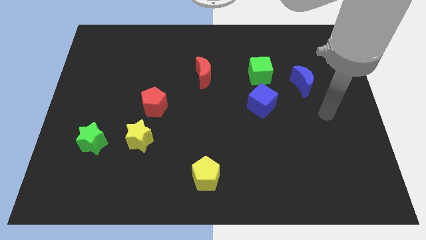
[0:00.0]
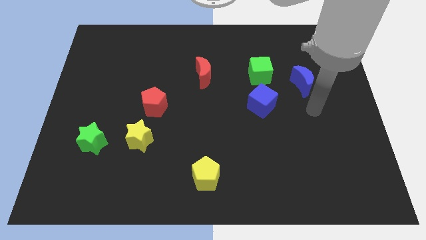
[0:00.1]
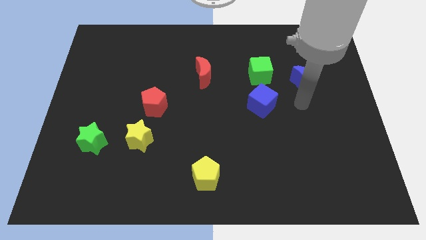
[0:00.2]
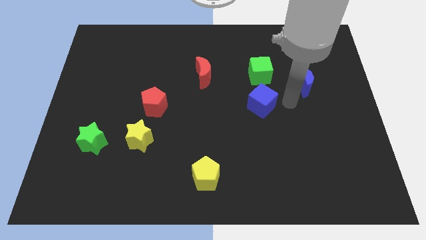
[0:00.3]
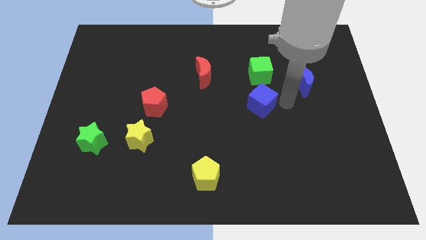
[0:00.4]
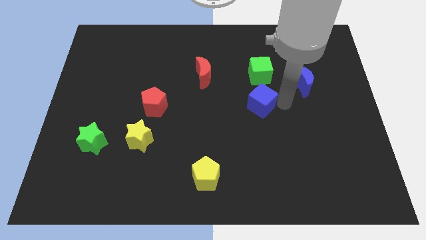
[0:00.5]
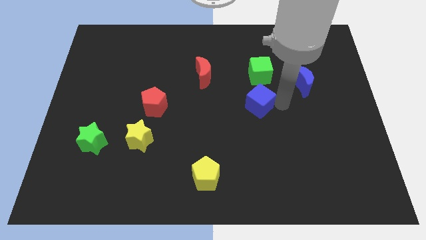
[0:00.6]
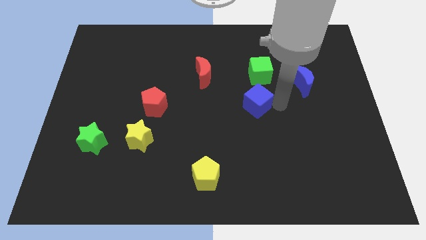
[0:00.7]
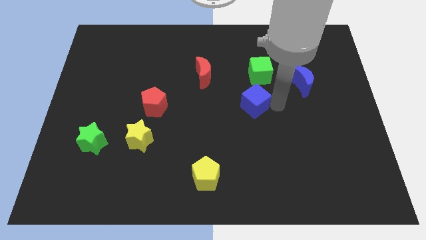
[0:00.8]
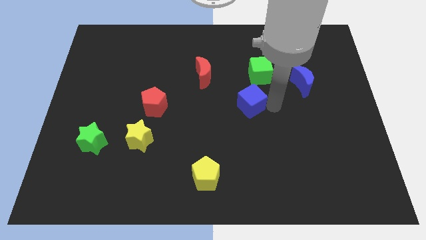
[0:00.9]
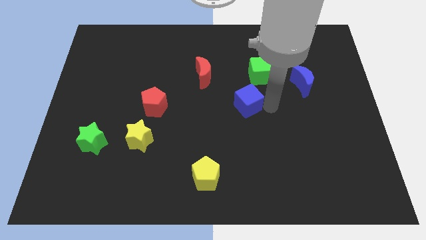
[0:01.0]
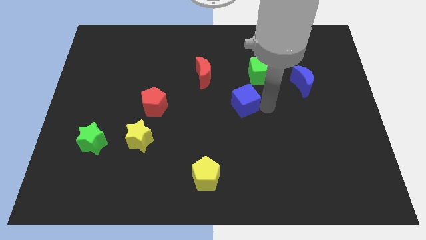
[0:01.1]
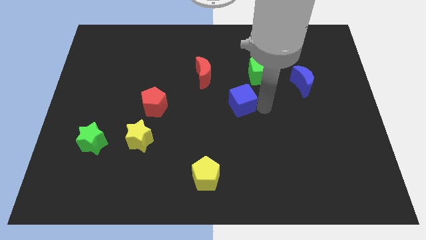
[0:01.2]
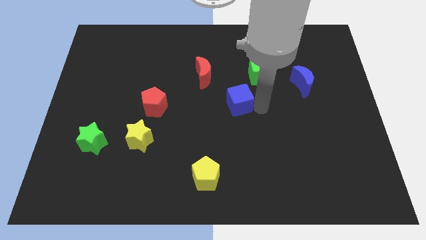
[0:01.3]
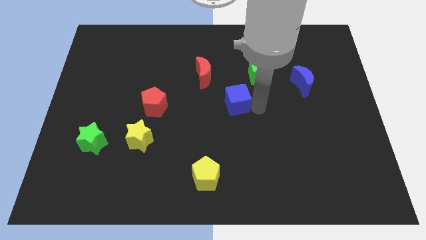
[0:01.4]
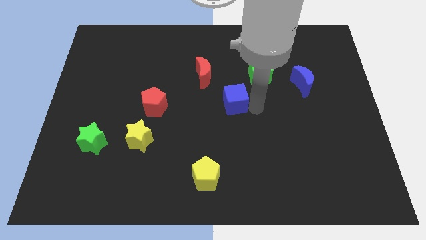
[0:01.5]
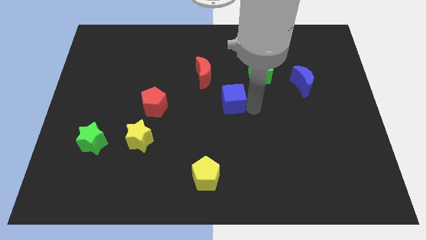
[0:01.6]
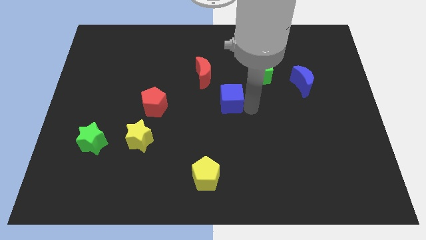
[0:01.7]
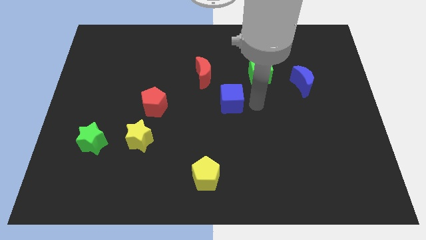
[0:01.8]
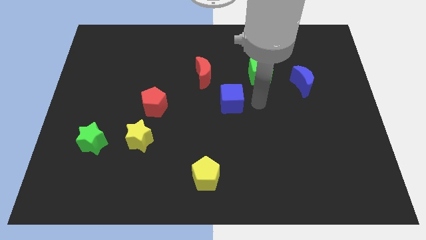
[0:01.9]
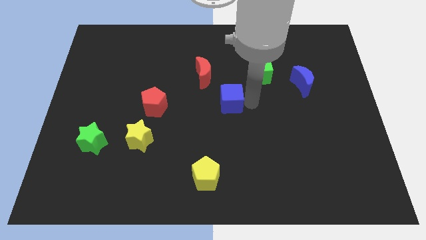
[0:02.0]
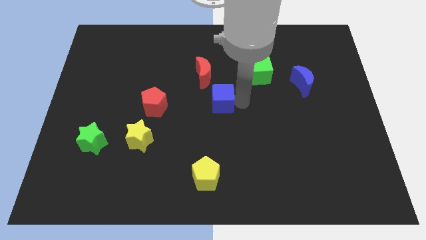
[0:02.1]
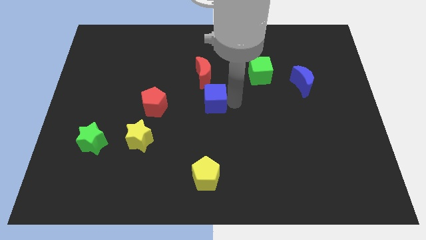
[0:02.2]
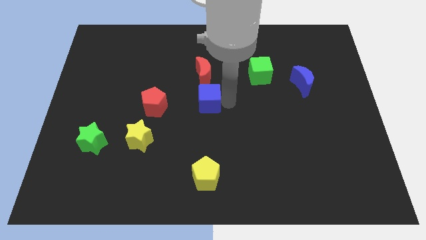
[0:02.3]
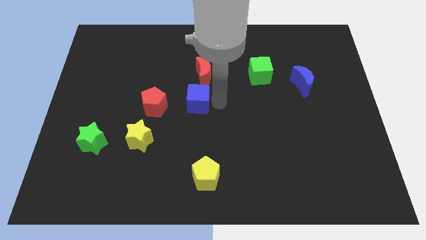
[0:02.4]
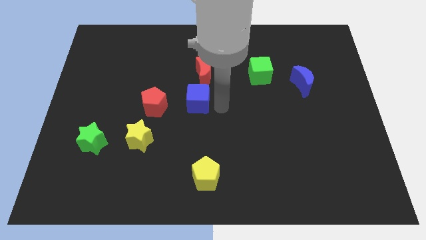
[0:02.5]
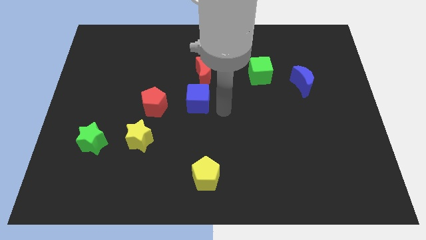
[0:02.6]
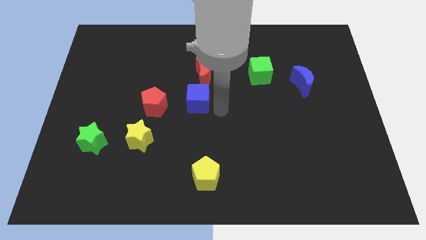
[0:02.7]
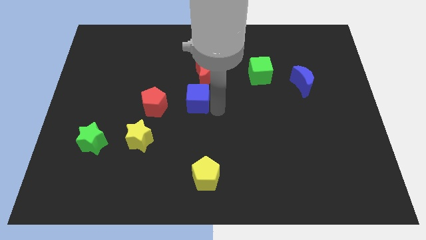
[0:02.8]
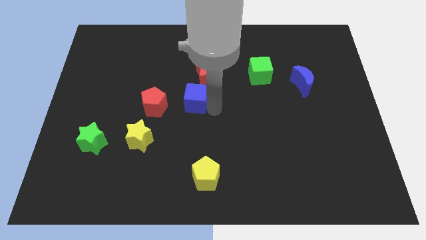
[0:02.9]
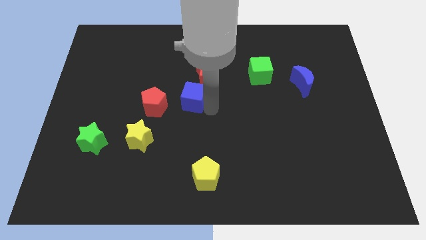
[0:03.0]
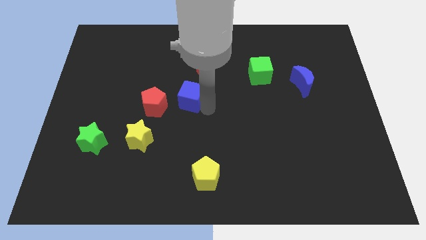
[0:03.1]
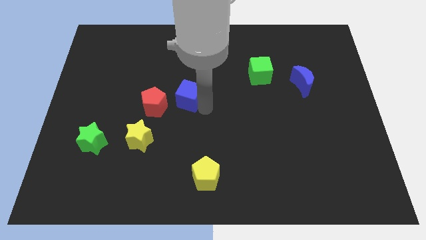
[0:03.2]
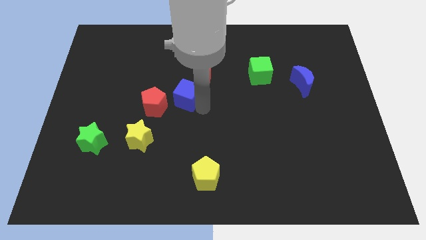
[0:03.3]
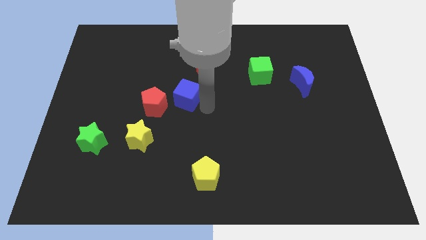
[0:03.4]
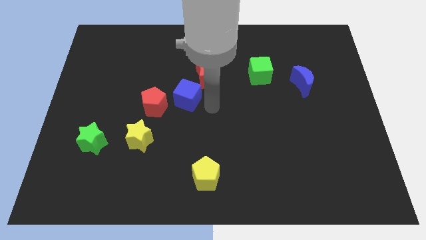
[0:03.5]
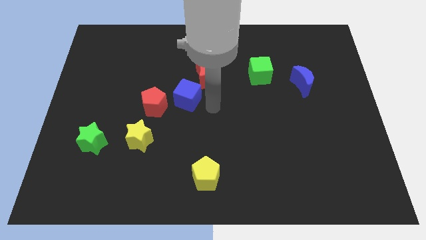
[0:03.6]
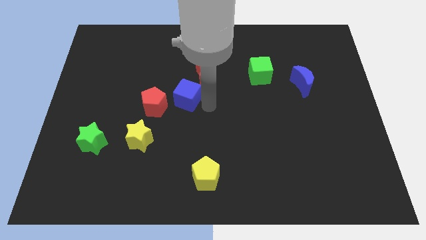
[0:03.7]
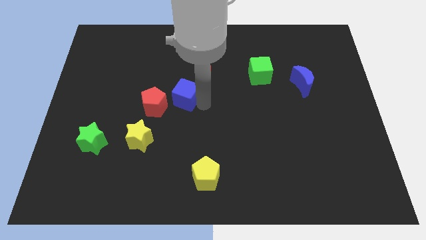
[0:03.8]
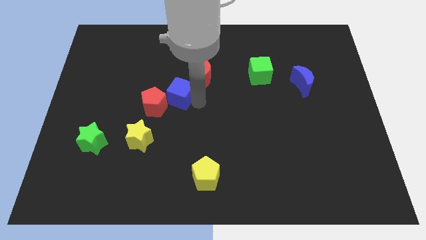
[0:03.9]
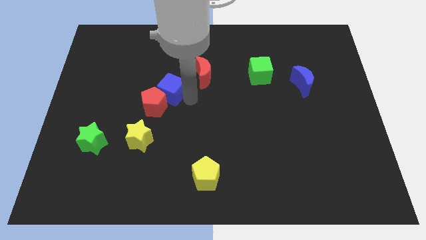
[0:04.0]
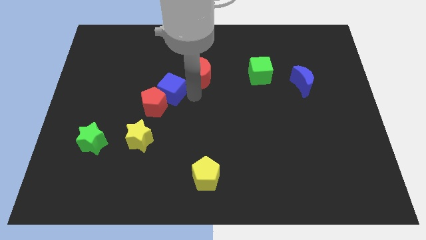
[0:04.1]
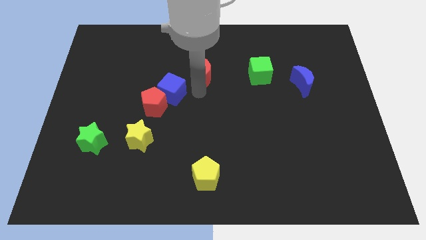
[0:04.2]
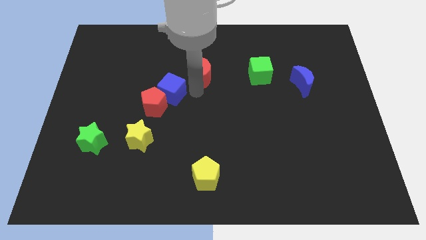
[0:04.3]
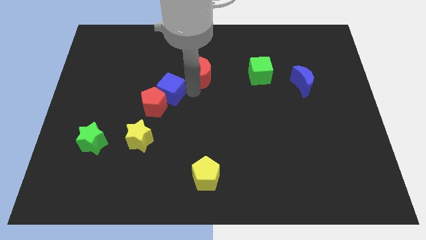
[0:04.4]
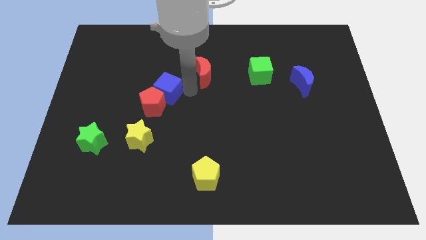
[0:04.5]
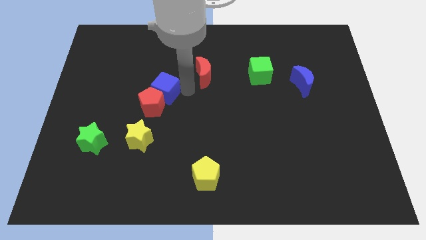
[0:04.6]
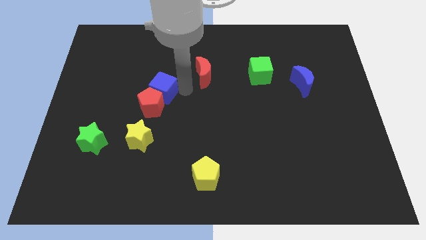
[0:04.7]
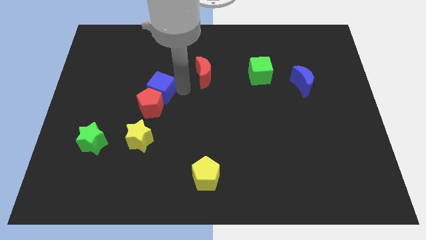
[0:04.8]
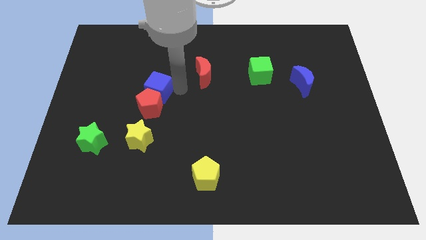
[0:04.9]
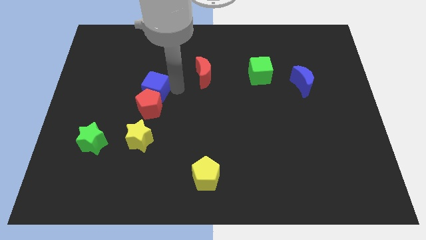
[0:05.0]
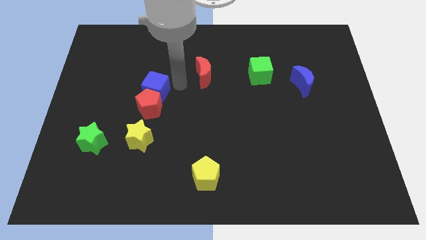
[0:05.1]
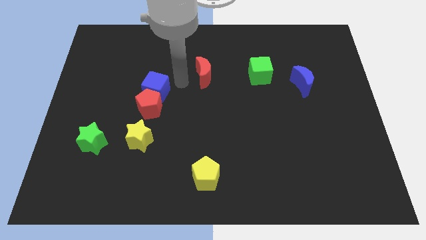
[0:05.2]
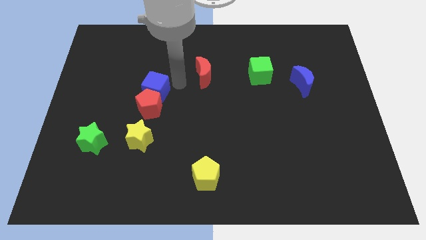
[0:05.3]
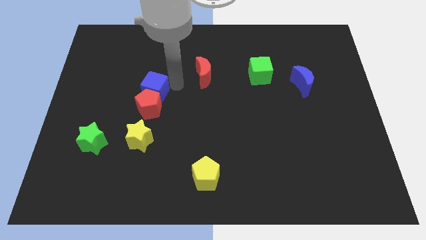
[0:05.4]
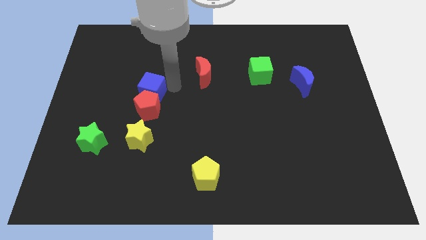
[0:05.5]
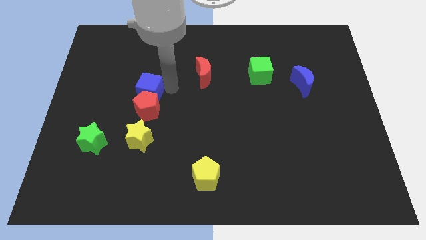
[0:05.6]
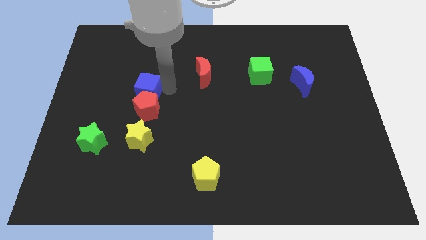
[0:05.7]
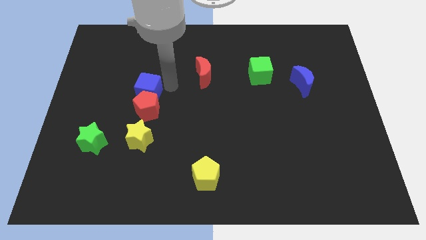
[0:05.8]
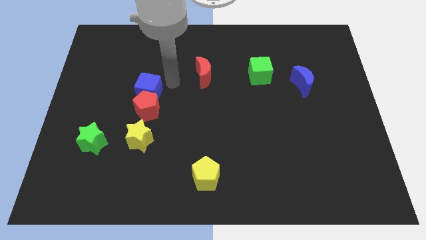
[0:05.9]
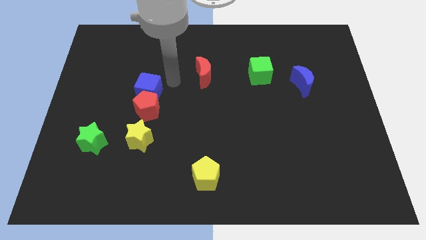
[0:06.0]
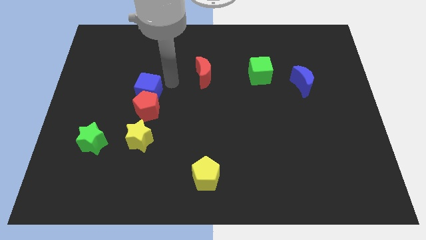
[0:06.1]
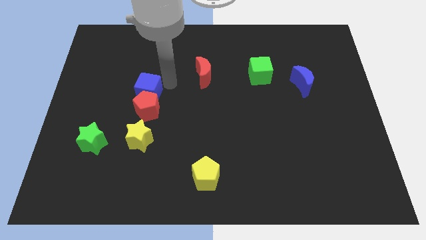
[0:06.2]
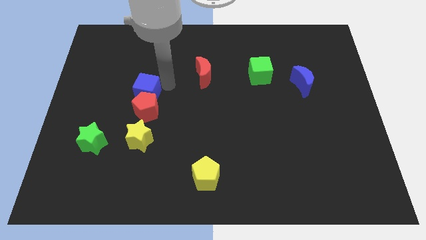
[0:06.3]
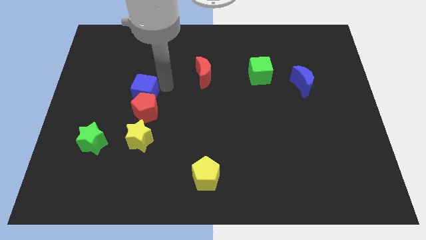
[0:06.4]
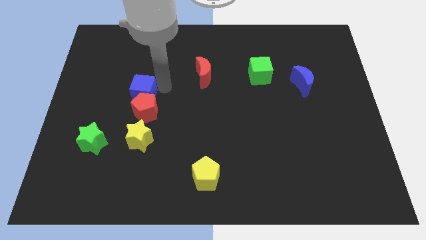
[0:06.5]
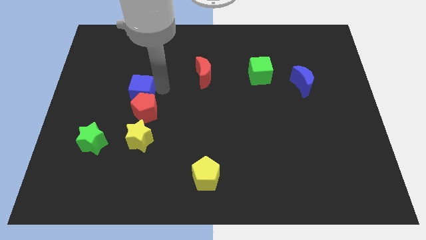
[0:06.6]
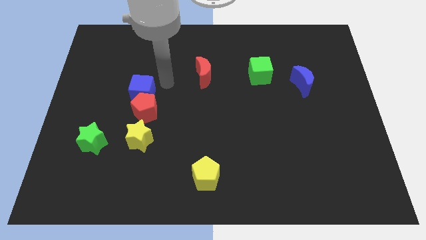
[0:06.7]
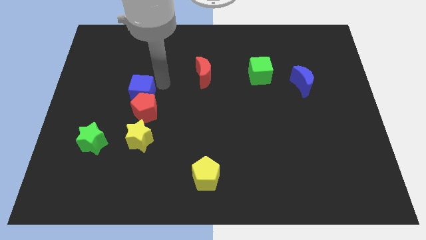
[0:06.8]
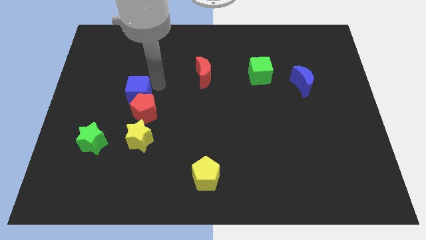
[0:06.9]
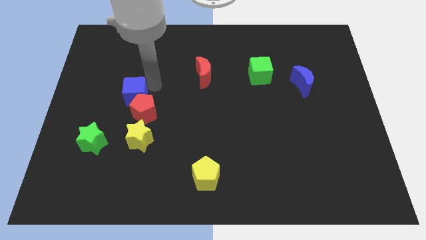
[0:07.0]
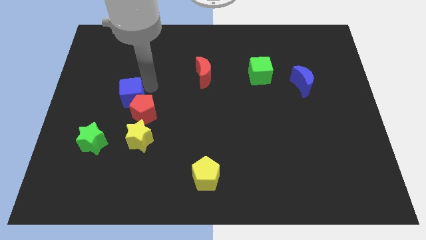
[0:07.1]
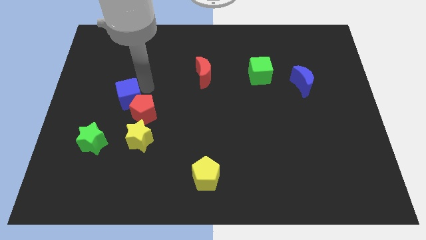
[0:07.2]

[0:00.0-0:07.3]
slide the blue cube left of the red pentagon
